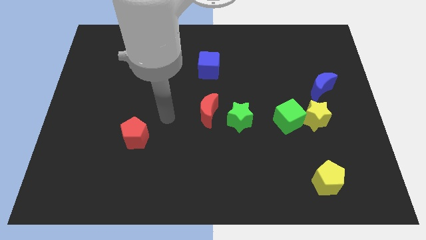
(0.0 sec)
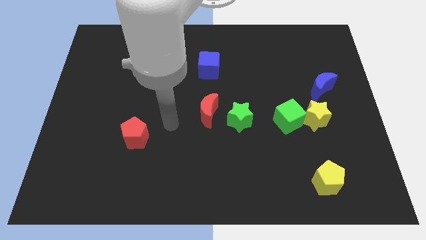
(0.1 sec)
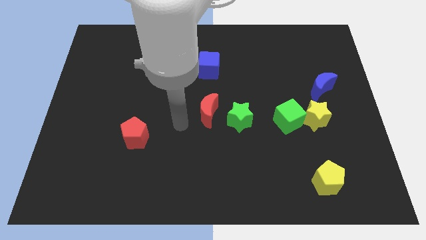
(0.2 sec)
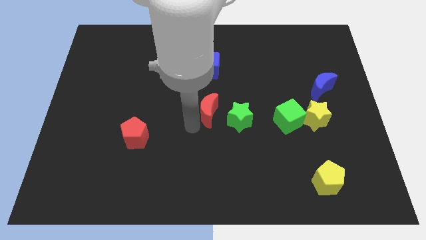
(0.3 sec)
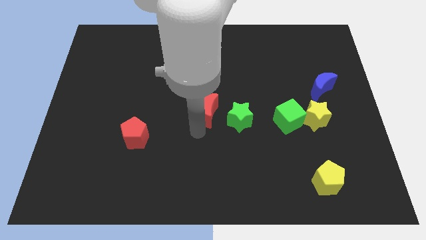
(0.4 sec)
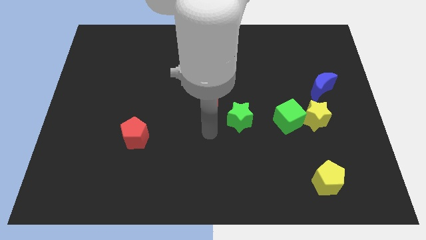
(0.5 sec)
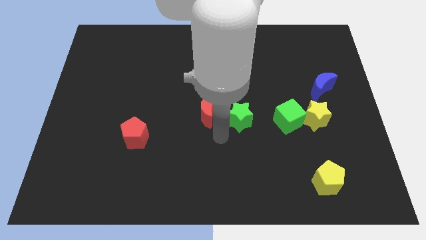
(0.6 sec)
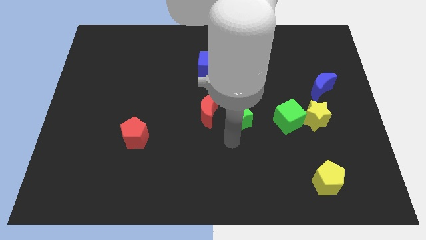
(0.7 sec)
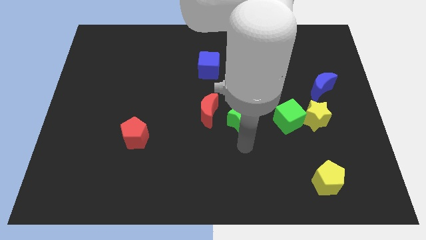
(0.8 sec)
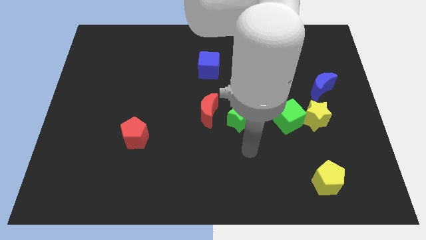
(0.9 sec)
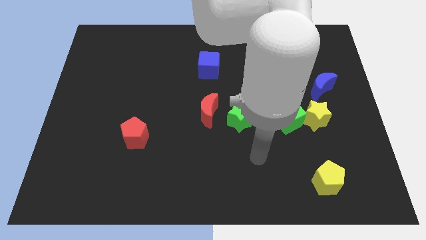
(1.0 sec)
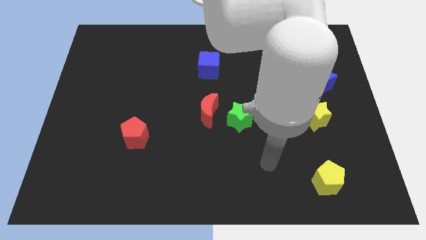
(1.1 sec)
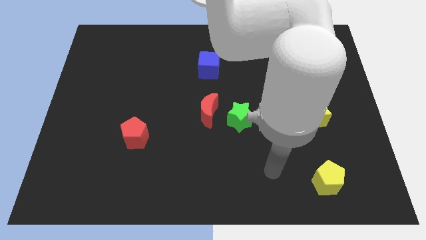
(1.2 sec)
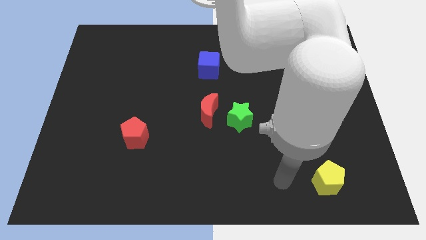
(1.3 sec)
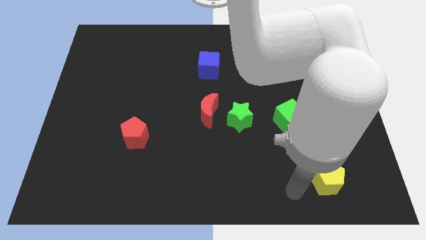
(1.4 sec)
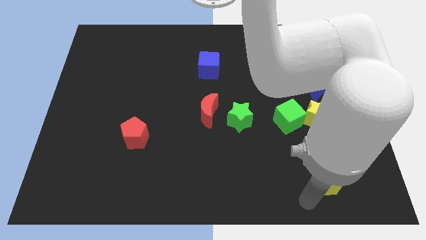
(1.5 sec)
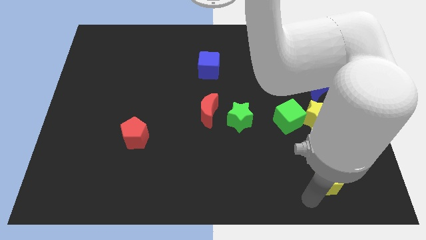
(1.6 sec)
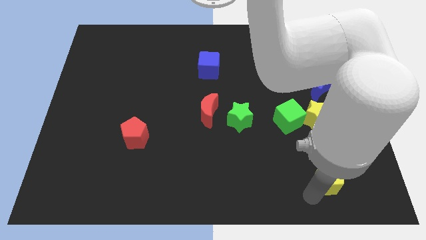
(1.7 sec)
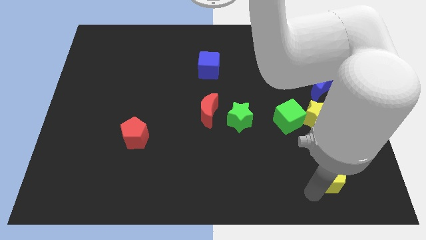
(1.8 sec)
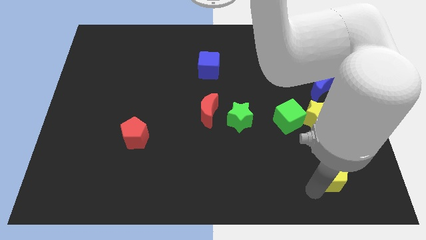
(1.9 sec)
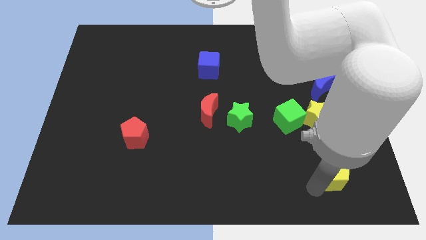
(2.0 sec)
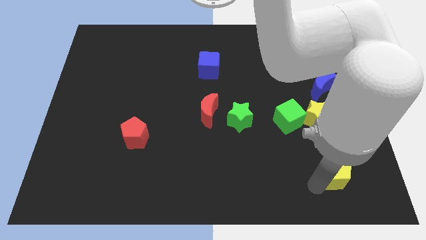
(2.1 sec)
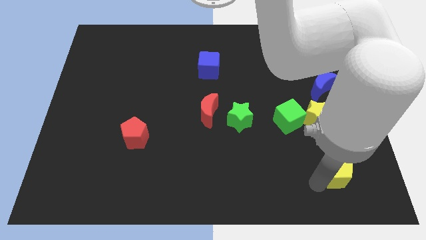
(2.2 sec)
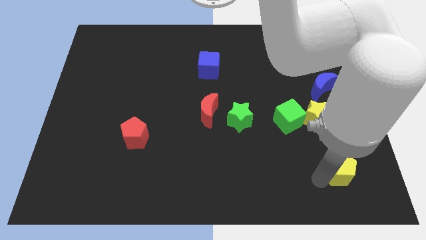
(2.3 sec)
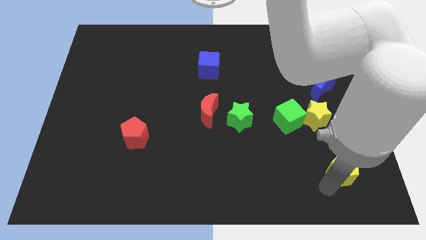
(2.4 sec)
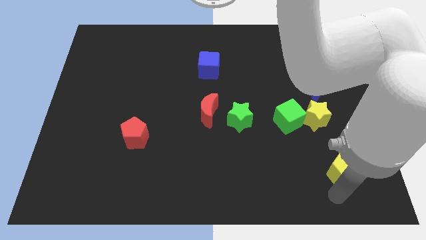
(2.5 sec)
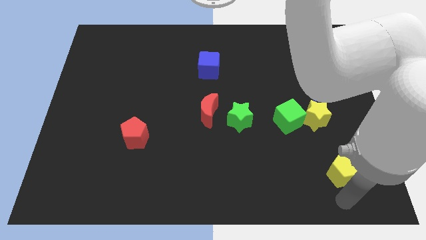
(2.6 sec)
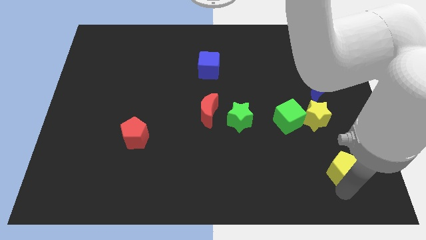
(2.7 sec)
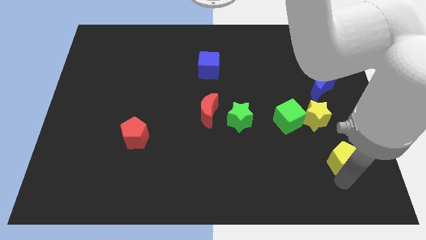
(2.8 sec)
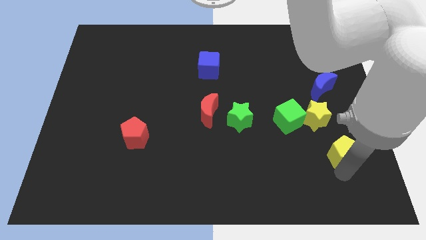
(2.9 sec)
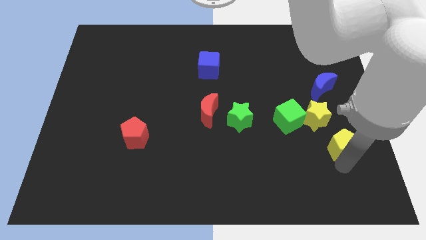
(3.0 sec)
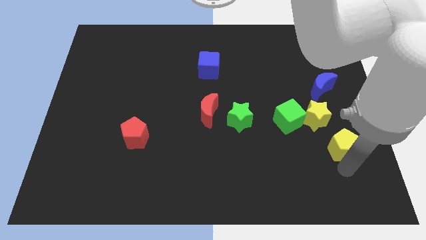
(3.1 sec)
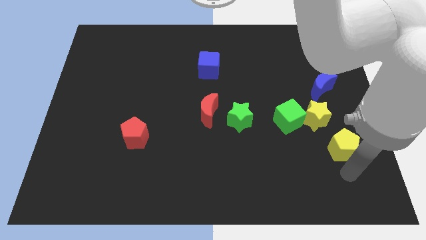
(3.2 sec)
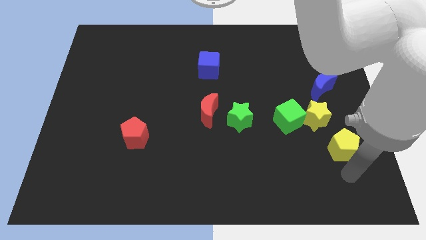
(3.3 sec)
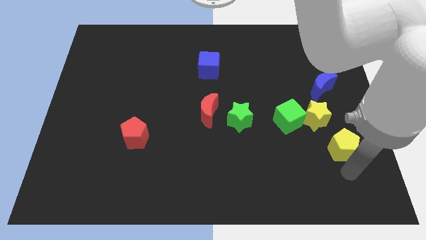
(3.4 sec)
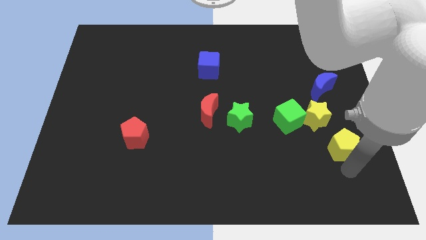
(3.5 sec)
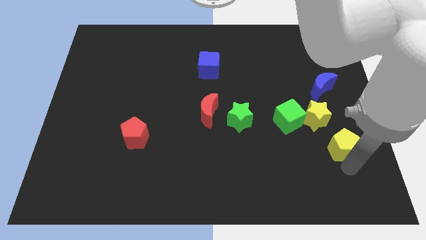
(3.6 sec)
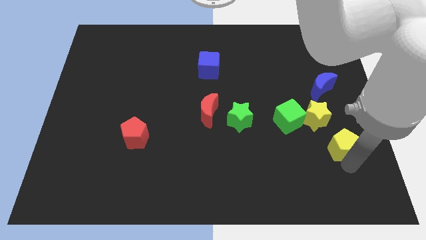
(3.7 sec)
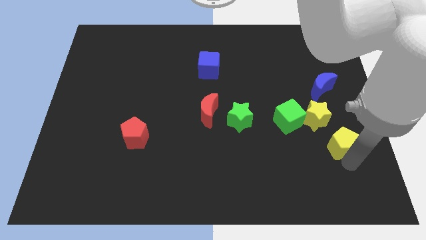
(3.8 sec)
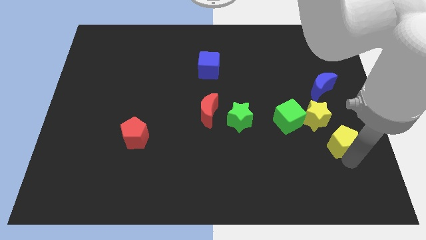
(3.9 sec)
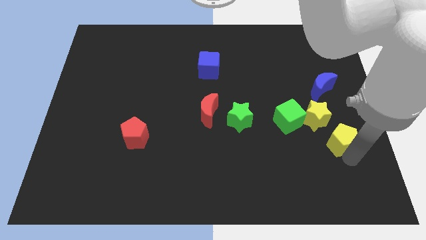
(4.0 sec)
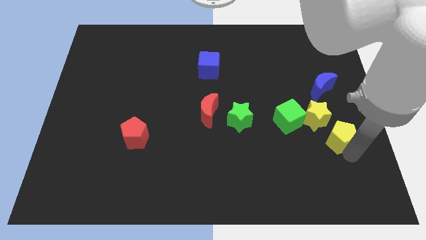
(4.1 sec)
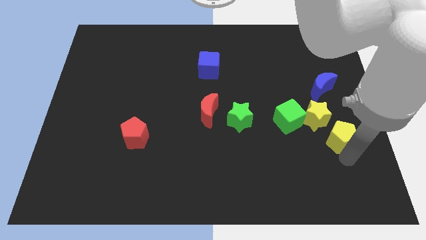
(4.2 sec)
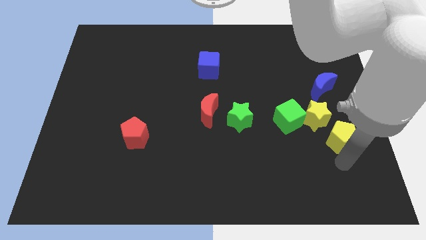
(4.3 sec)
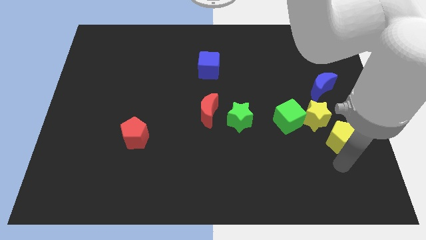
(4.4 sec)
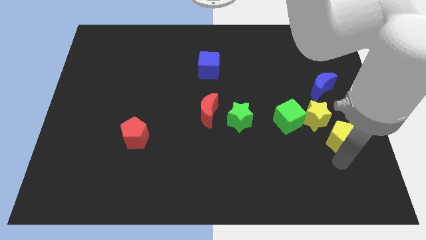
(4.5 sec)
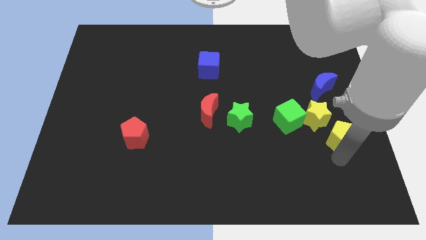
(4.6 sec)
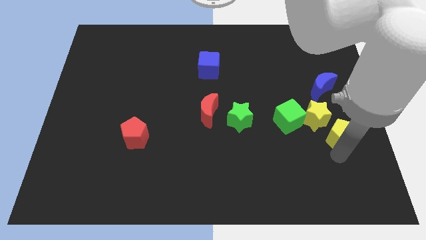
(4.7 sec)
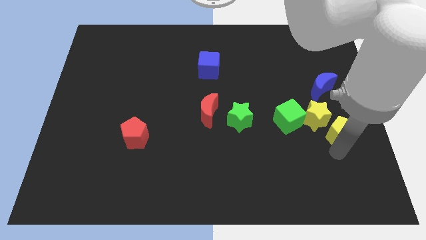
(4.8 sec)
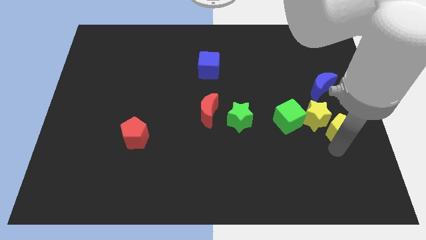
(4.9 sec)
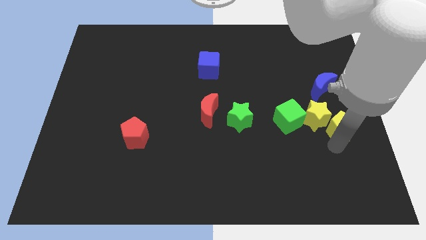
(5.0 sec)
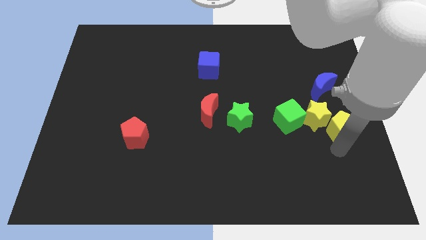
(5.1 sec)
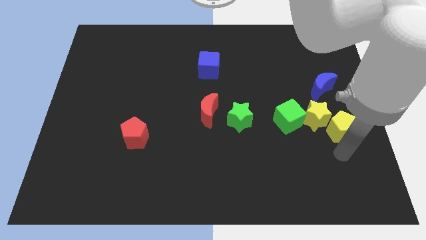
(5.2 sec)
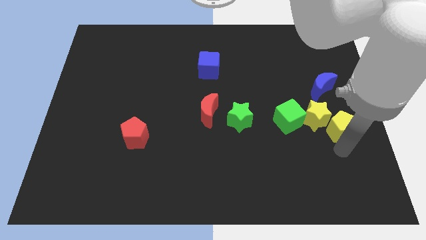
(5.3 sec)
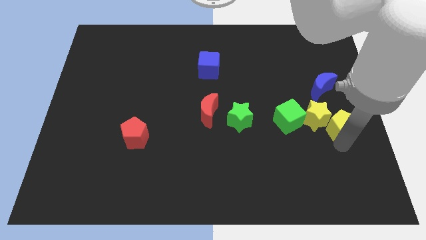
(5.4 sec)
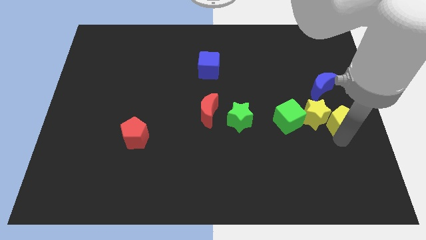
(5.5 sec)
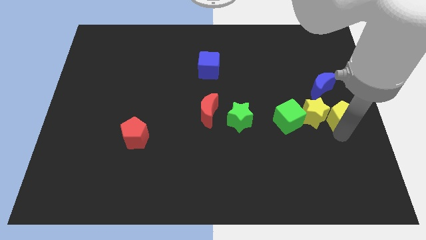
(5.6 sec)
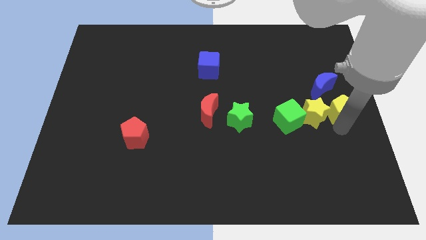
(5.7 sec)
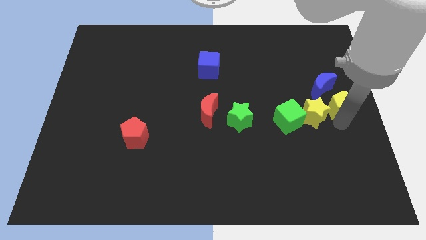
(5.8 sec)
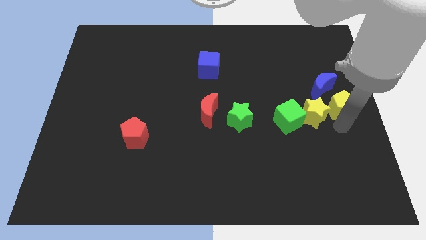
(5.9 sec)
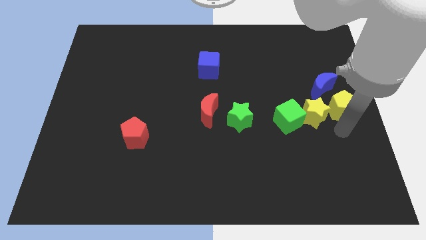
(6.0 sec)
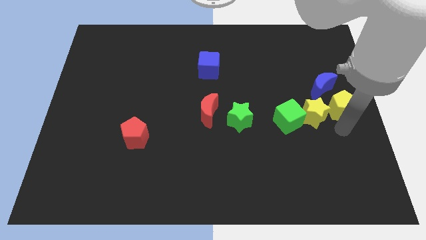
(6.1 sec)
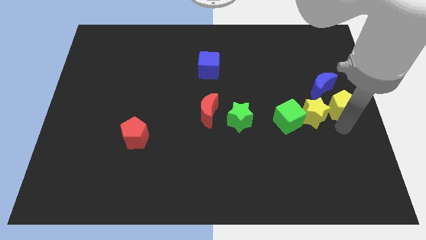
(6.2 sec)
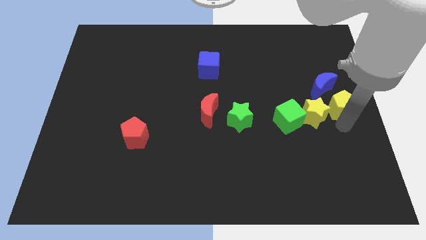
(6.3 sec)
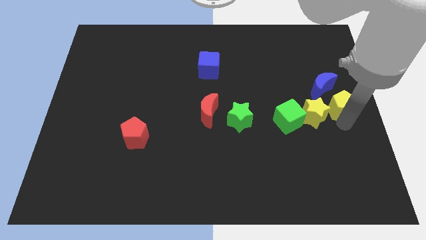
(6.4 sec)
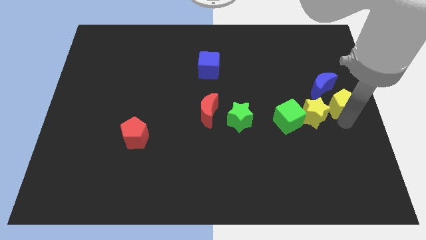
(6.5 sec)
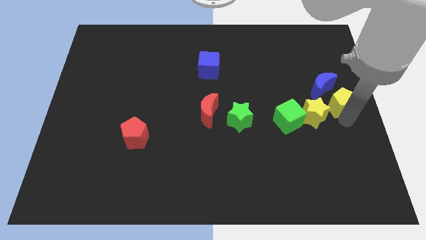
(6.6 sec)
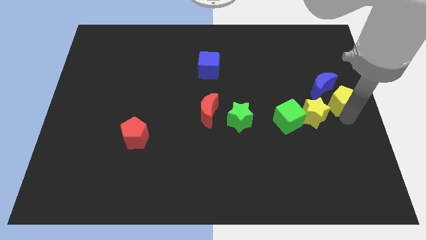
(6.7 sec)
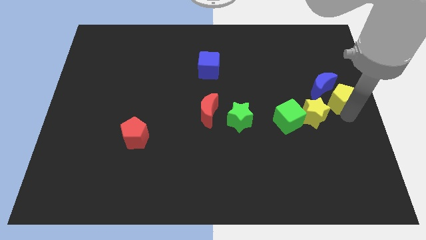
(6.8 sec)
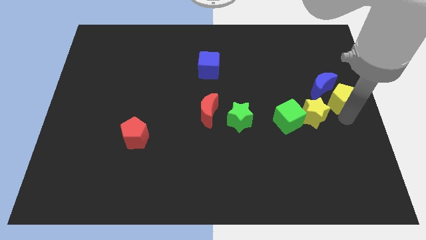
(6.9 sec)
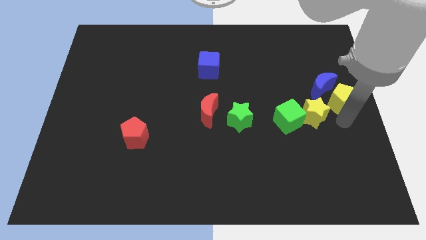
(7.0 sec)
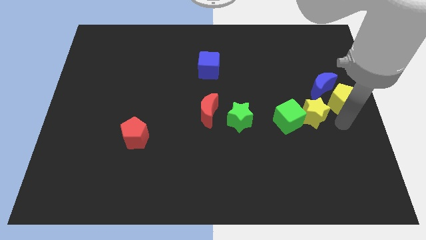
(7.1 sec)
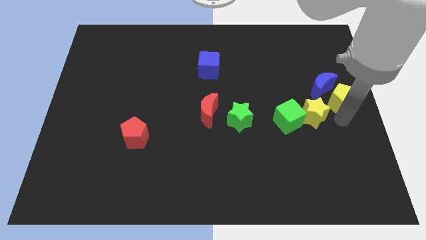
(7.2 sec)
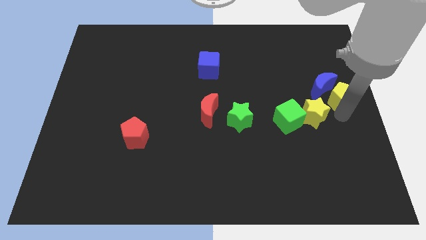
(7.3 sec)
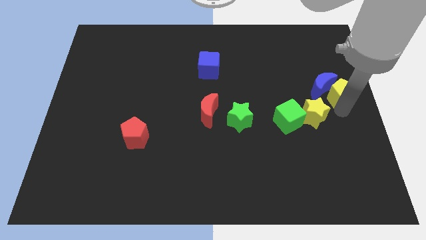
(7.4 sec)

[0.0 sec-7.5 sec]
push the yellow pentagon up

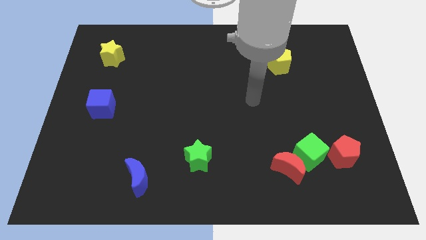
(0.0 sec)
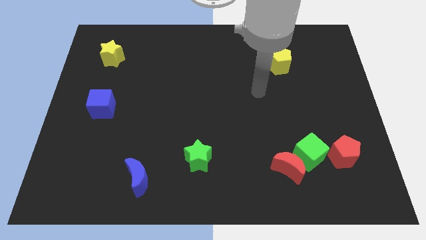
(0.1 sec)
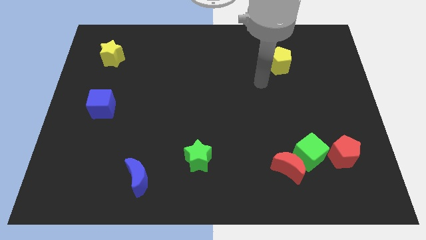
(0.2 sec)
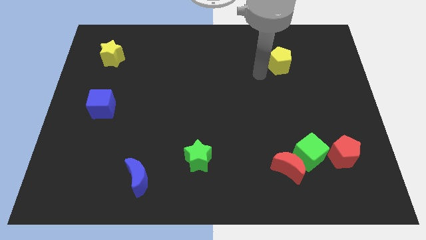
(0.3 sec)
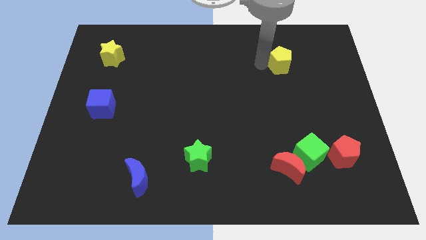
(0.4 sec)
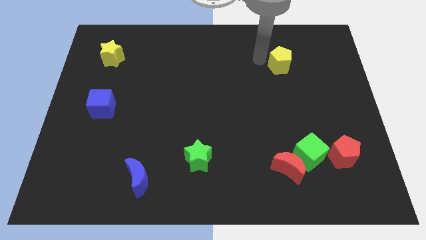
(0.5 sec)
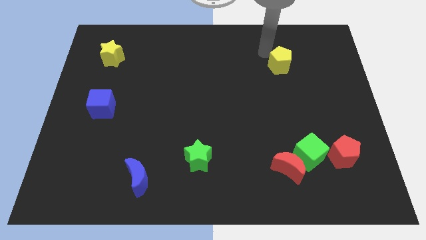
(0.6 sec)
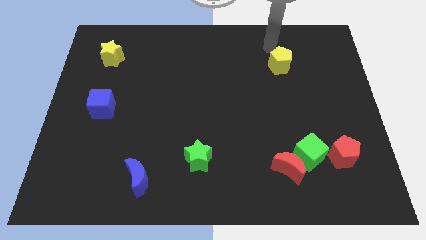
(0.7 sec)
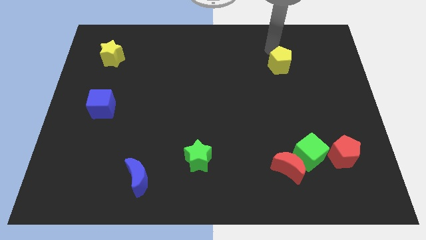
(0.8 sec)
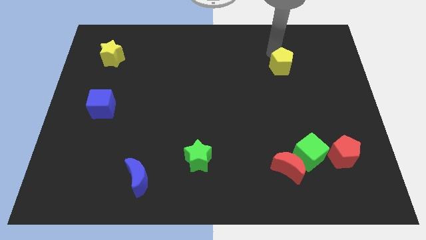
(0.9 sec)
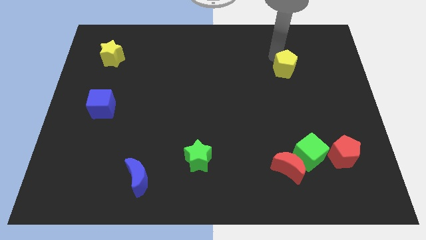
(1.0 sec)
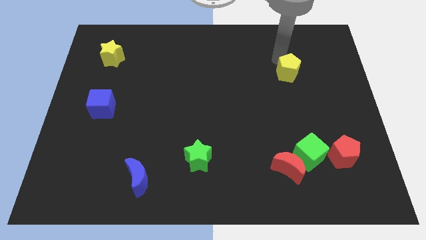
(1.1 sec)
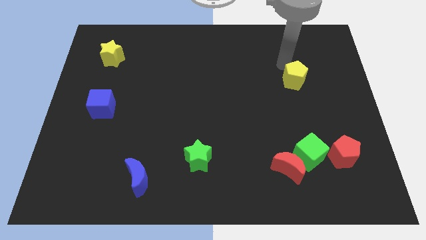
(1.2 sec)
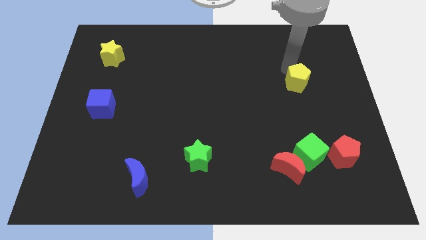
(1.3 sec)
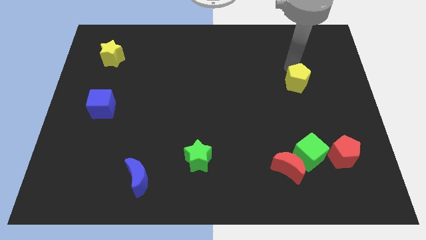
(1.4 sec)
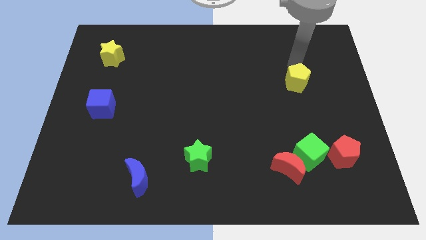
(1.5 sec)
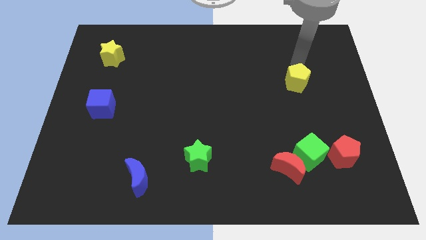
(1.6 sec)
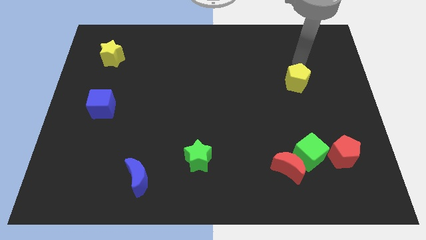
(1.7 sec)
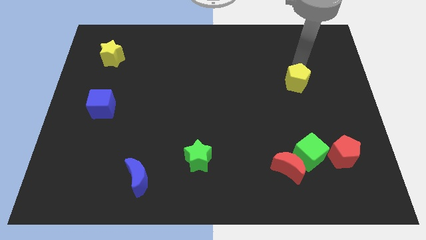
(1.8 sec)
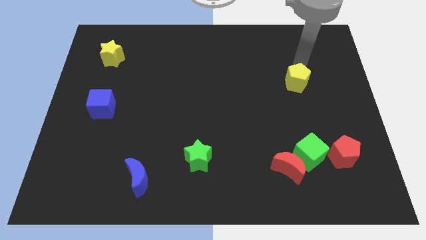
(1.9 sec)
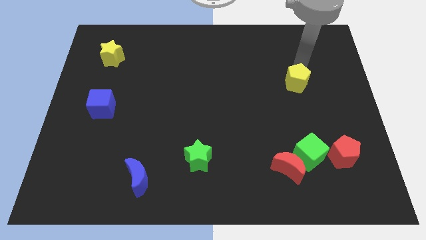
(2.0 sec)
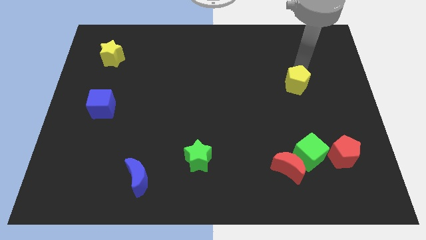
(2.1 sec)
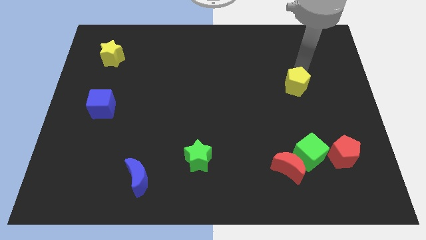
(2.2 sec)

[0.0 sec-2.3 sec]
slightly slide the yellow pentagon downwards
